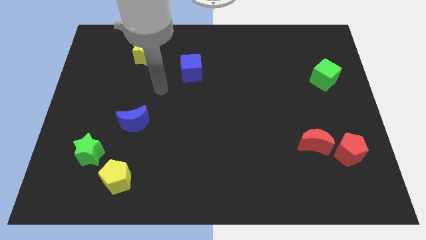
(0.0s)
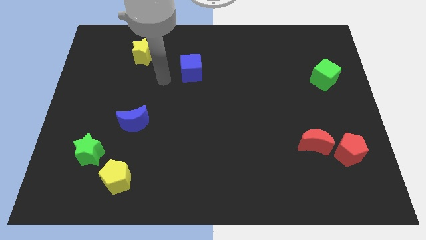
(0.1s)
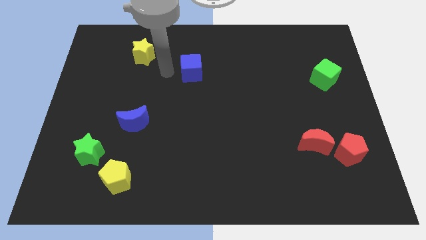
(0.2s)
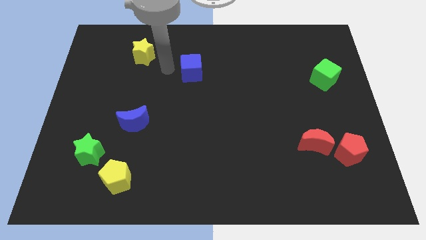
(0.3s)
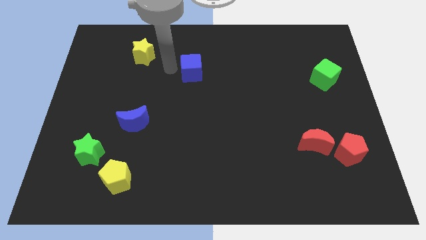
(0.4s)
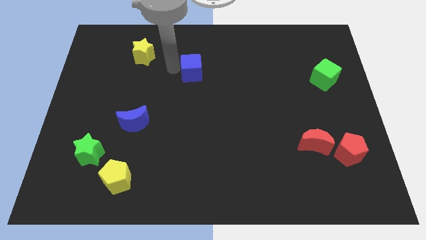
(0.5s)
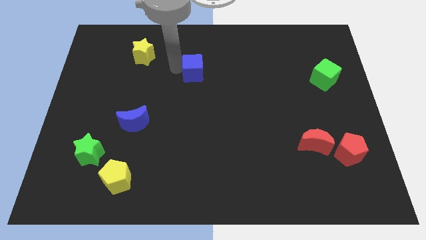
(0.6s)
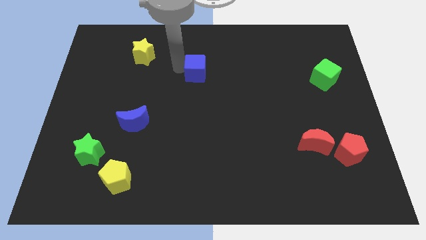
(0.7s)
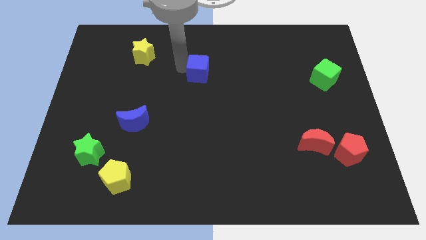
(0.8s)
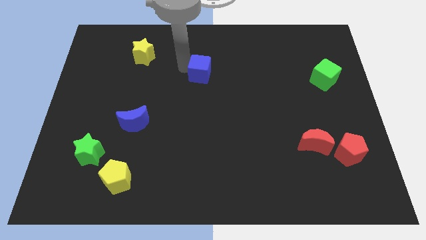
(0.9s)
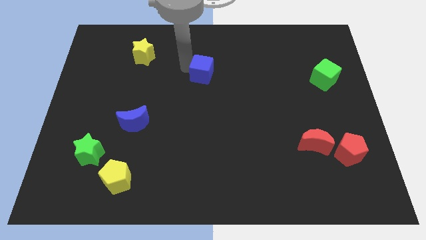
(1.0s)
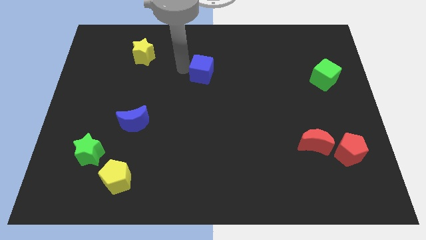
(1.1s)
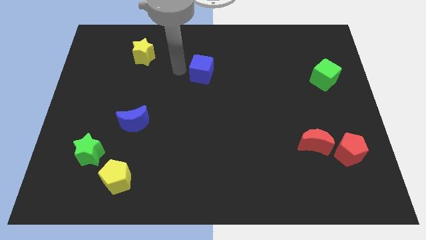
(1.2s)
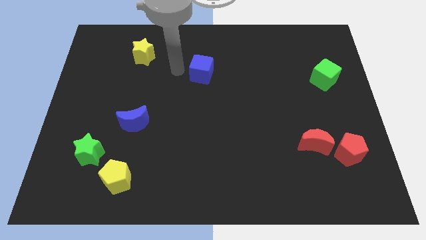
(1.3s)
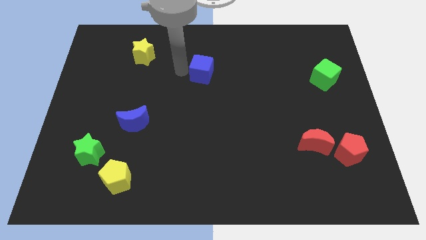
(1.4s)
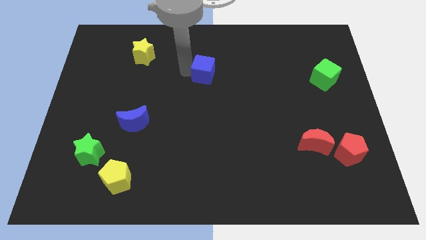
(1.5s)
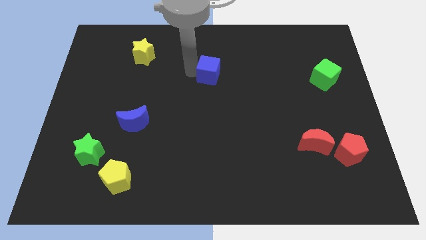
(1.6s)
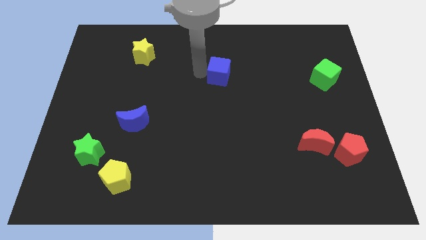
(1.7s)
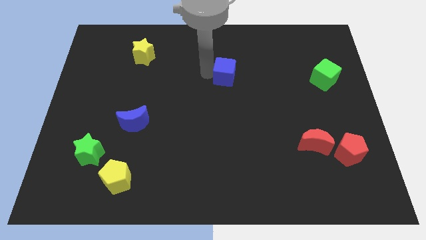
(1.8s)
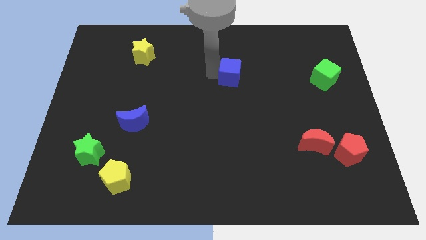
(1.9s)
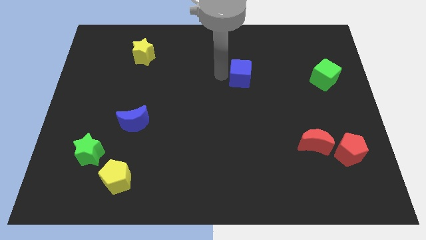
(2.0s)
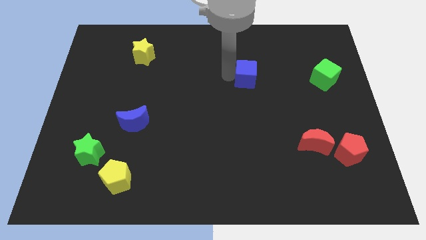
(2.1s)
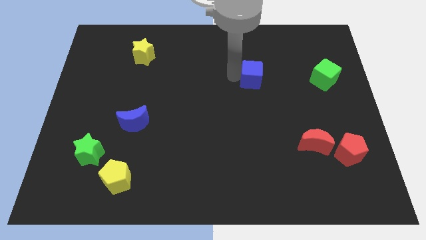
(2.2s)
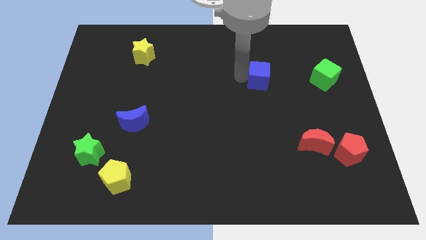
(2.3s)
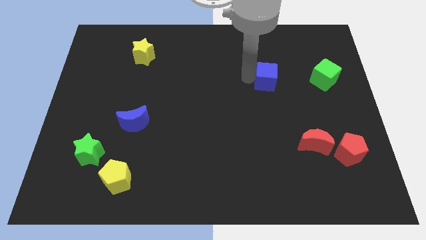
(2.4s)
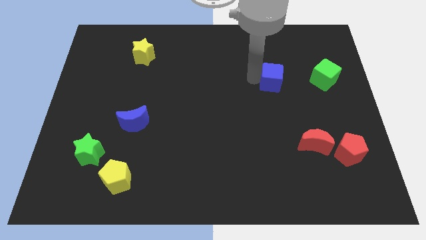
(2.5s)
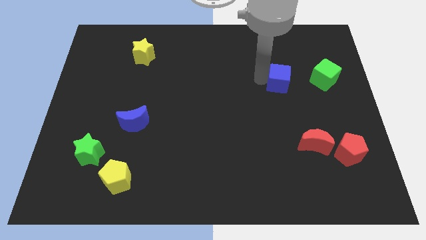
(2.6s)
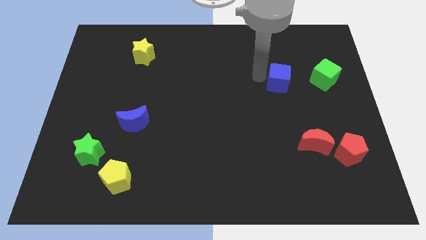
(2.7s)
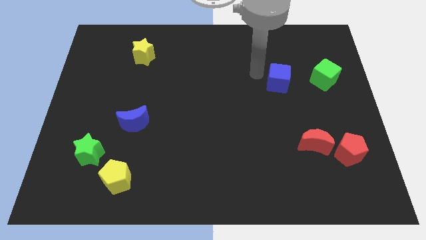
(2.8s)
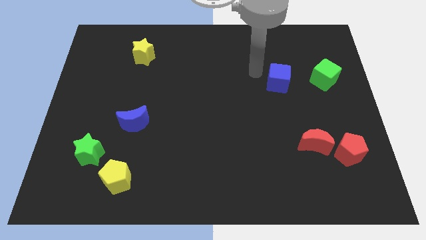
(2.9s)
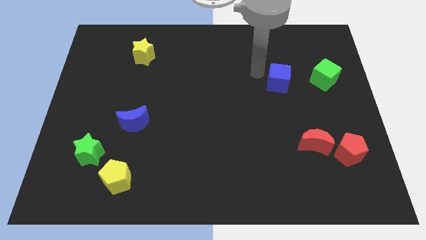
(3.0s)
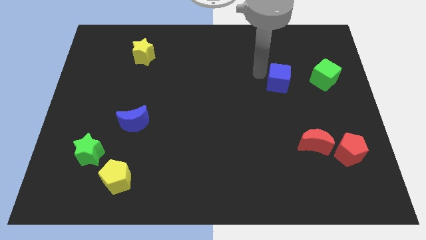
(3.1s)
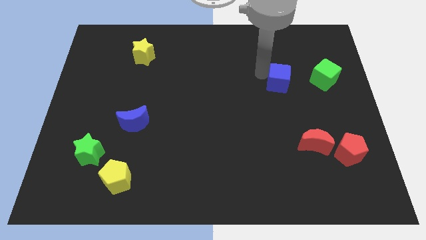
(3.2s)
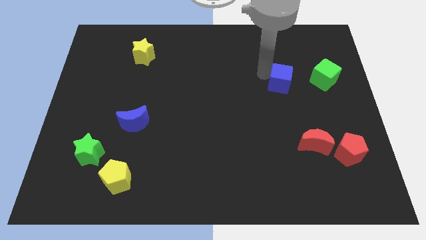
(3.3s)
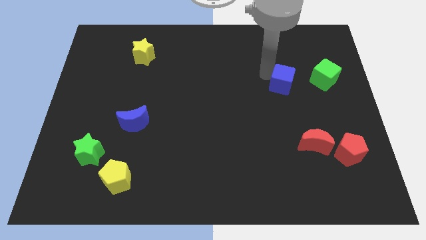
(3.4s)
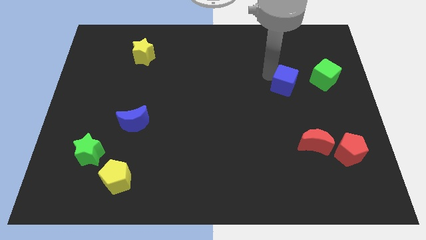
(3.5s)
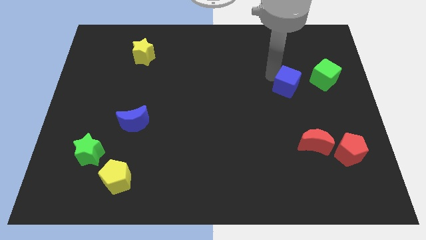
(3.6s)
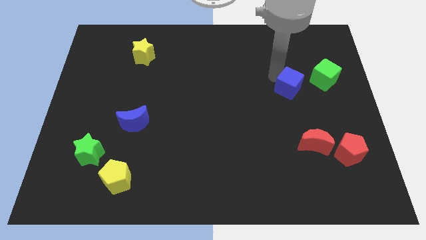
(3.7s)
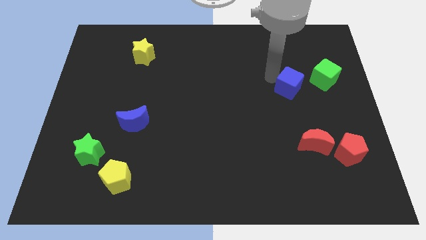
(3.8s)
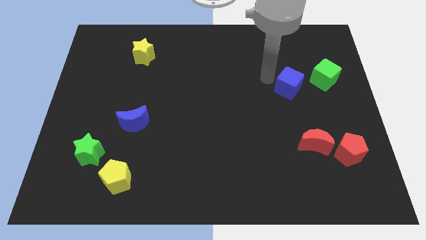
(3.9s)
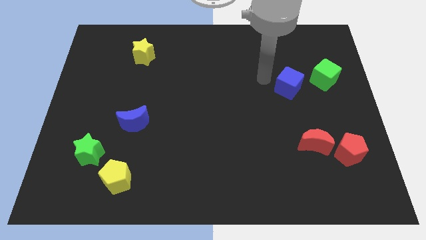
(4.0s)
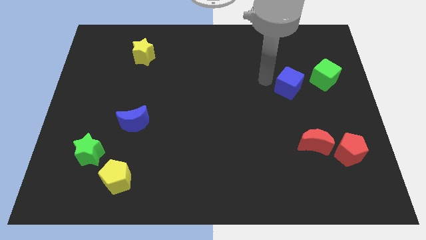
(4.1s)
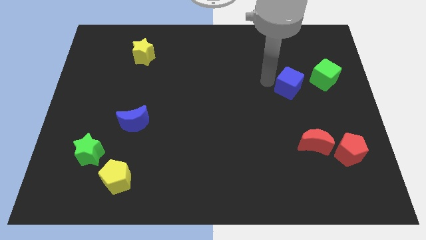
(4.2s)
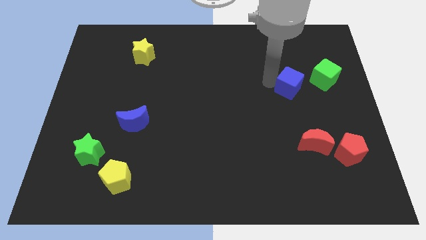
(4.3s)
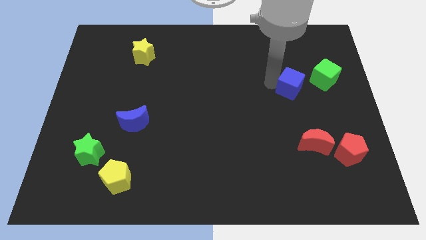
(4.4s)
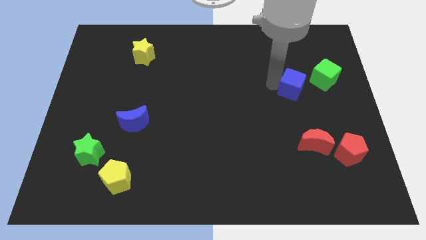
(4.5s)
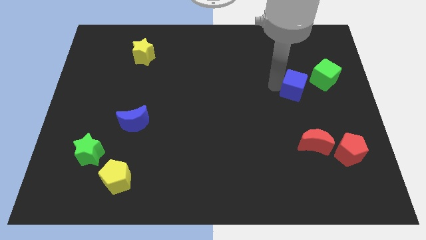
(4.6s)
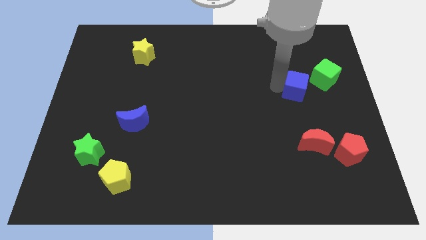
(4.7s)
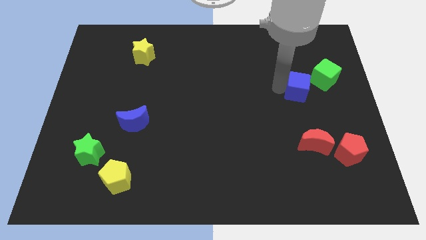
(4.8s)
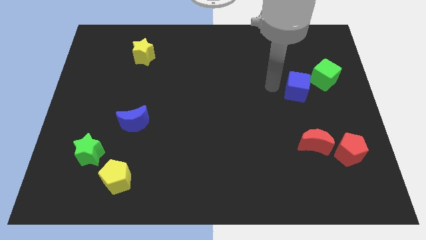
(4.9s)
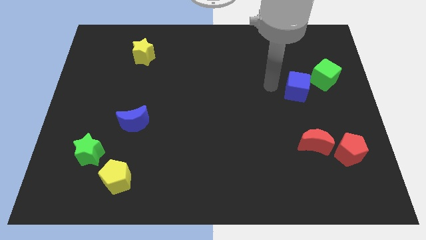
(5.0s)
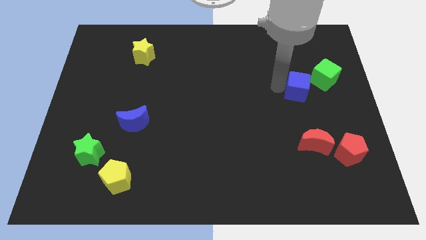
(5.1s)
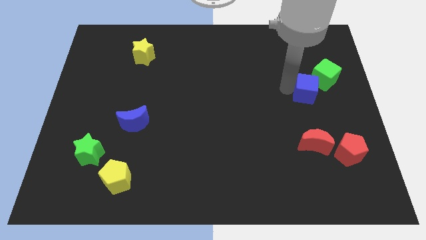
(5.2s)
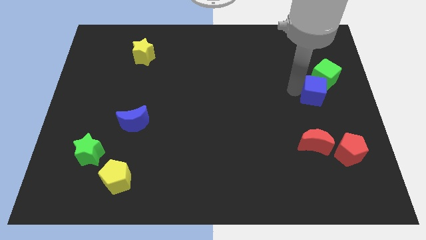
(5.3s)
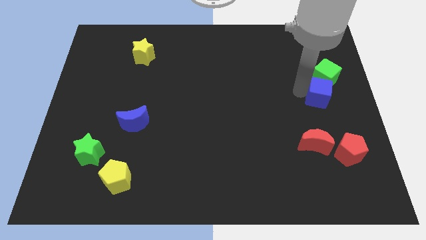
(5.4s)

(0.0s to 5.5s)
push the blue cube to the center right
